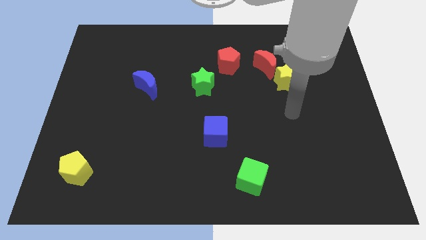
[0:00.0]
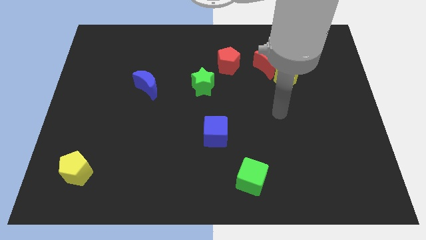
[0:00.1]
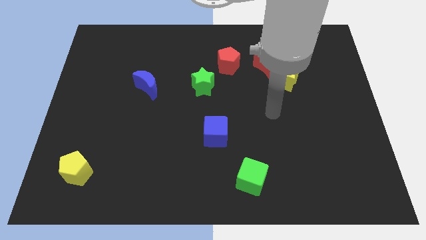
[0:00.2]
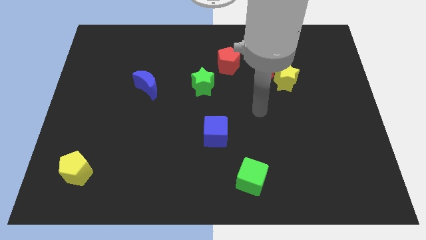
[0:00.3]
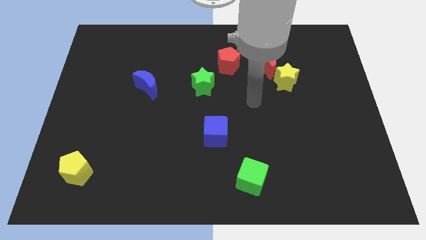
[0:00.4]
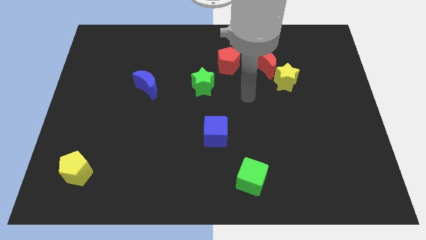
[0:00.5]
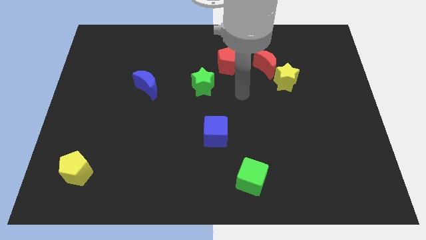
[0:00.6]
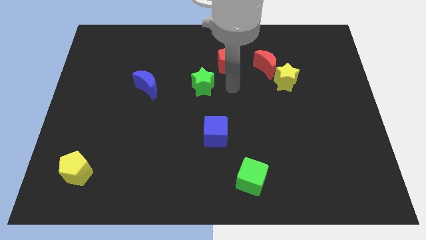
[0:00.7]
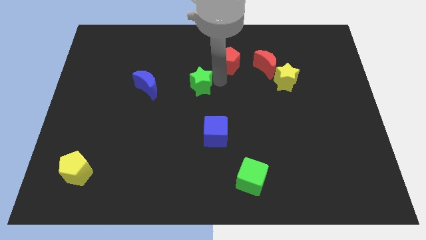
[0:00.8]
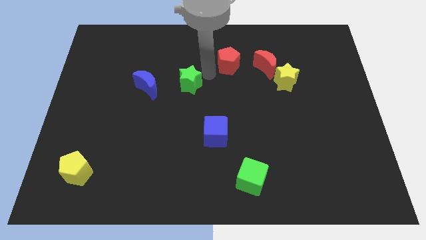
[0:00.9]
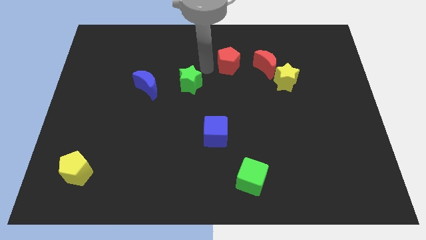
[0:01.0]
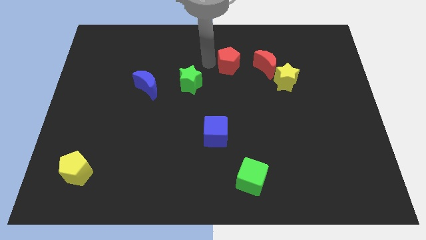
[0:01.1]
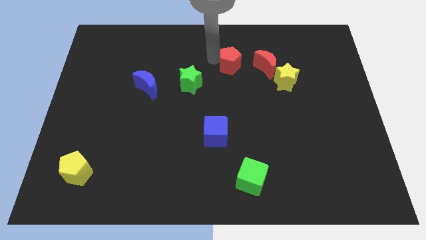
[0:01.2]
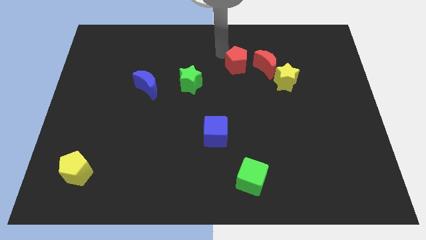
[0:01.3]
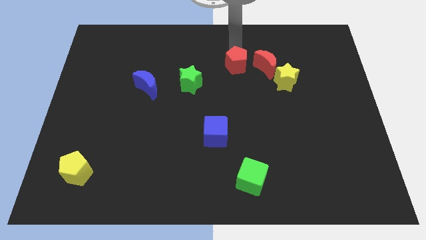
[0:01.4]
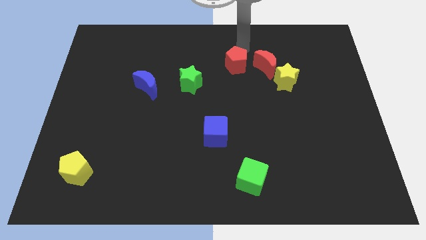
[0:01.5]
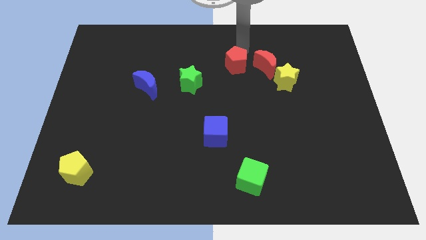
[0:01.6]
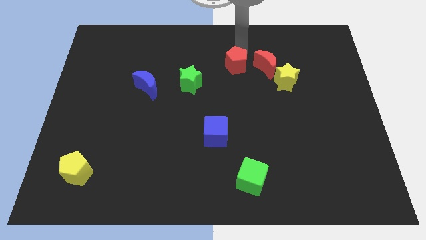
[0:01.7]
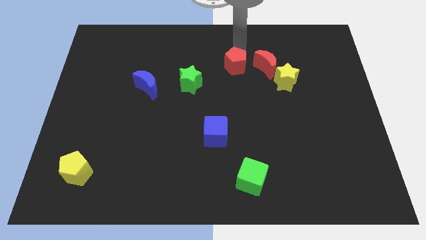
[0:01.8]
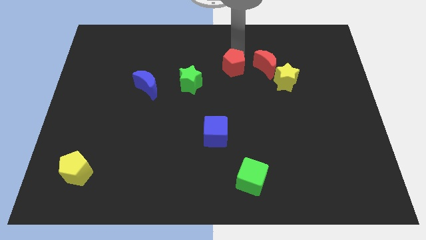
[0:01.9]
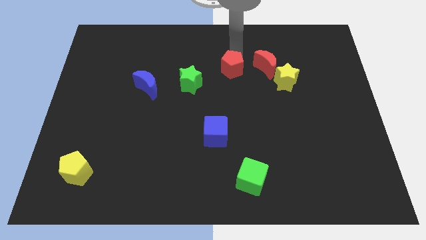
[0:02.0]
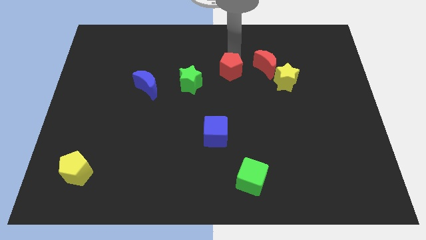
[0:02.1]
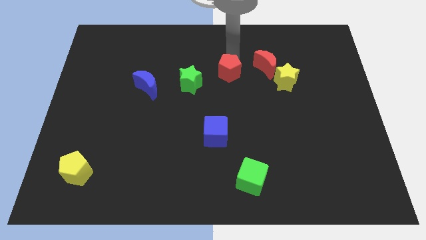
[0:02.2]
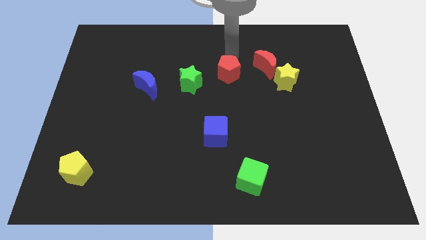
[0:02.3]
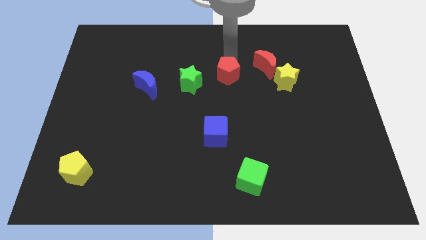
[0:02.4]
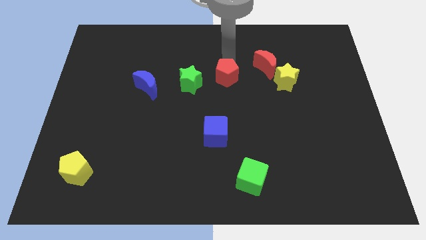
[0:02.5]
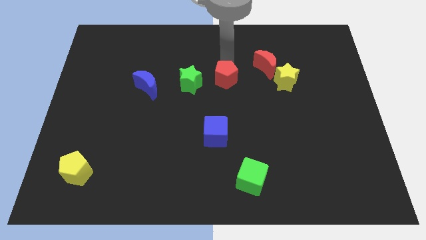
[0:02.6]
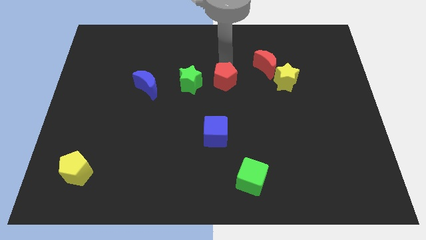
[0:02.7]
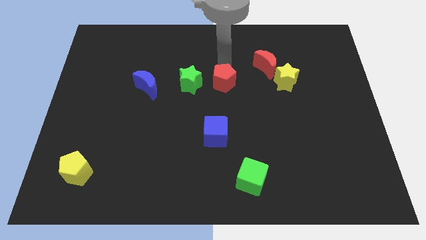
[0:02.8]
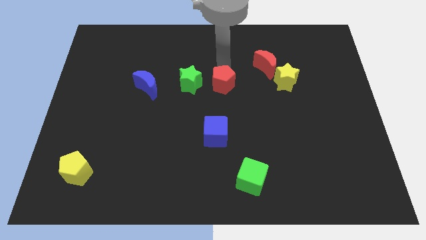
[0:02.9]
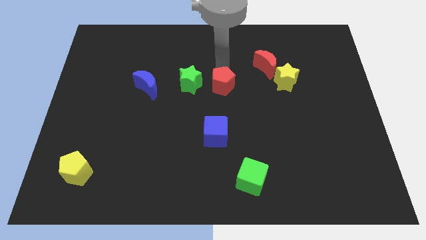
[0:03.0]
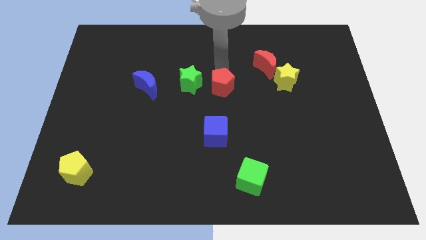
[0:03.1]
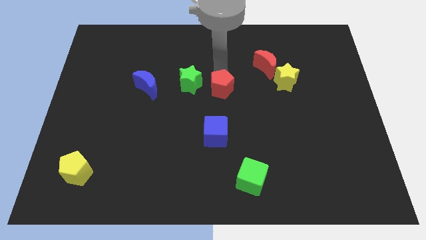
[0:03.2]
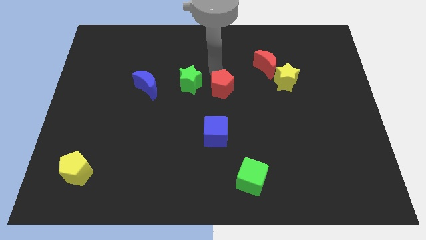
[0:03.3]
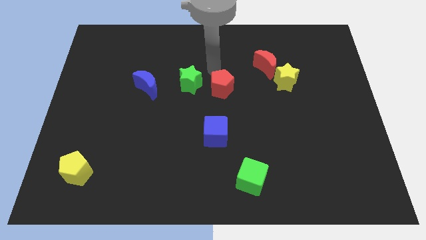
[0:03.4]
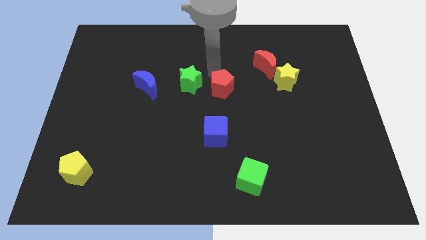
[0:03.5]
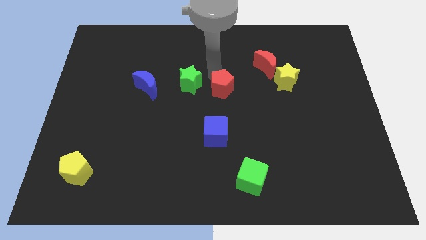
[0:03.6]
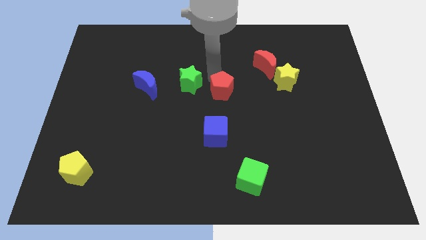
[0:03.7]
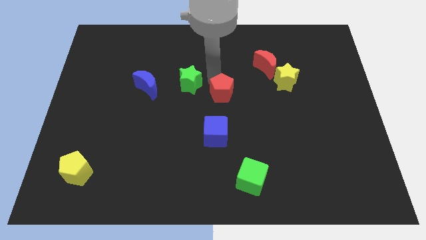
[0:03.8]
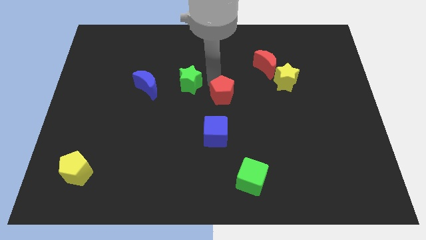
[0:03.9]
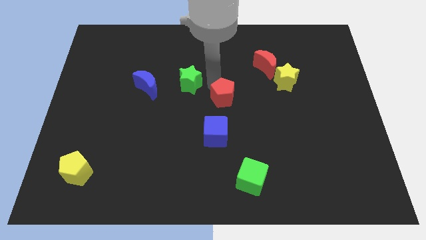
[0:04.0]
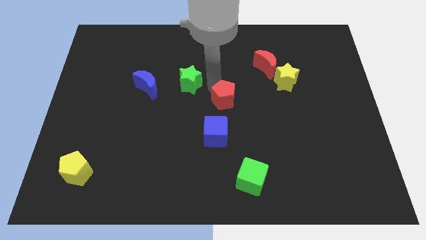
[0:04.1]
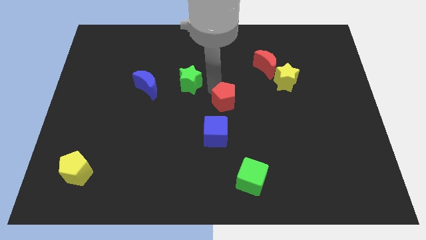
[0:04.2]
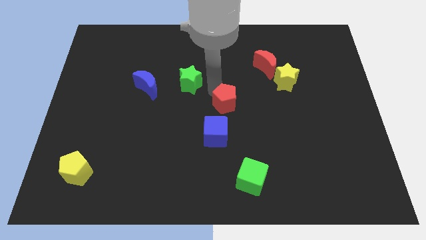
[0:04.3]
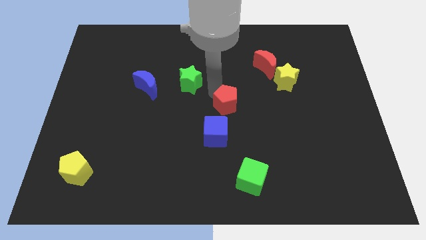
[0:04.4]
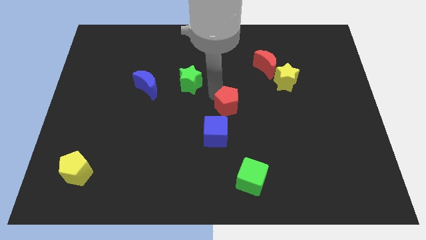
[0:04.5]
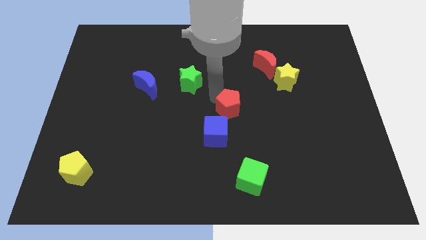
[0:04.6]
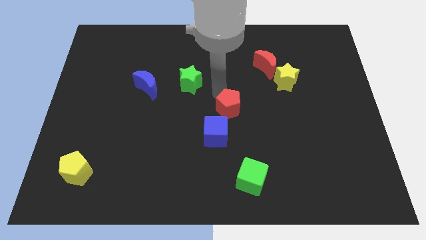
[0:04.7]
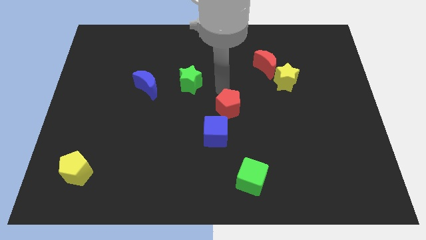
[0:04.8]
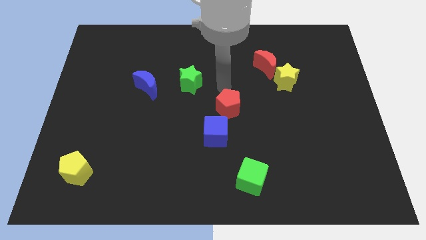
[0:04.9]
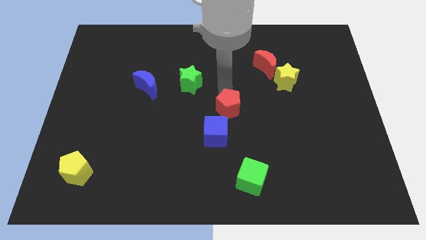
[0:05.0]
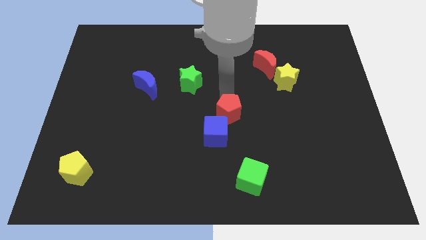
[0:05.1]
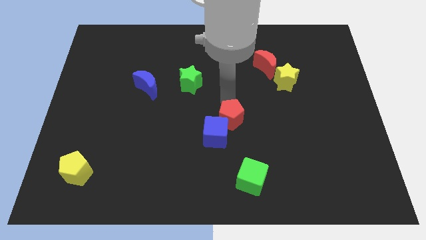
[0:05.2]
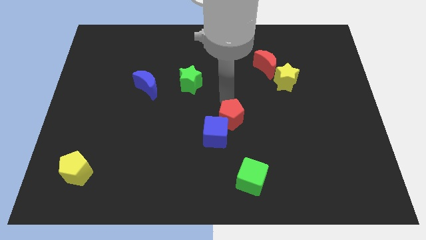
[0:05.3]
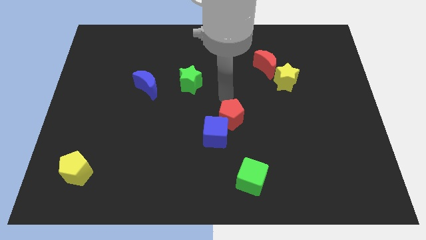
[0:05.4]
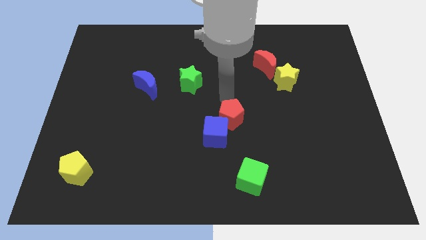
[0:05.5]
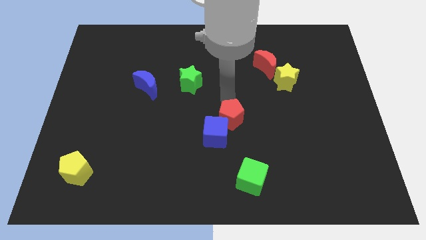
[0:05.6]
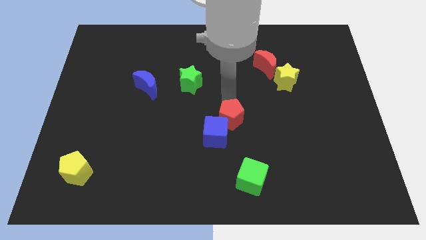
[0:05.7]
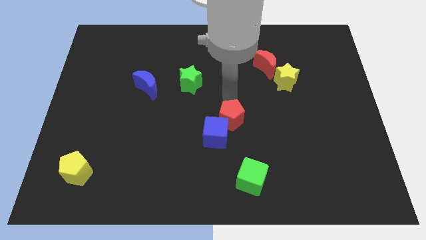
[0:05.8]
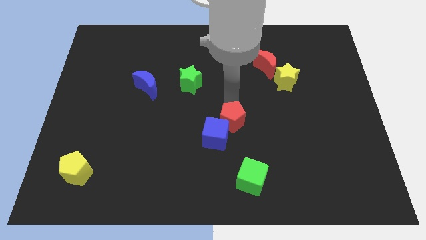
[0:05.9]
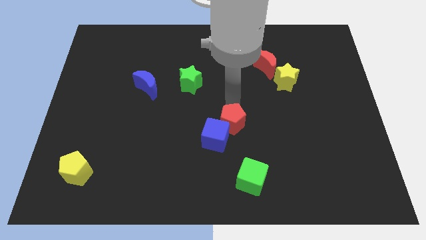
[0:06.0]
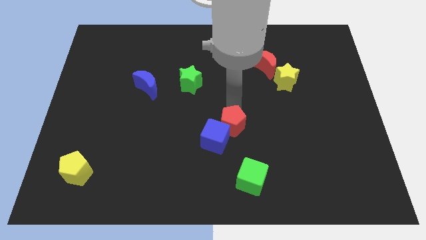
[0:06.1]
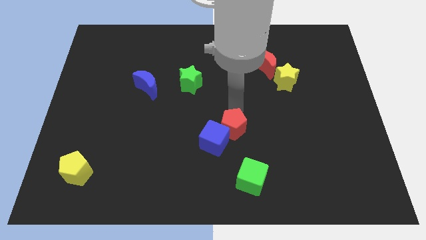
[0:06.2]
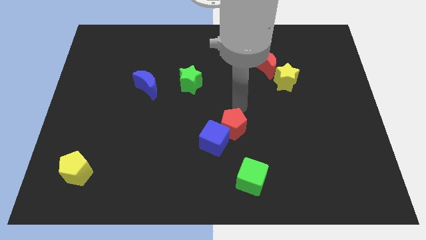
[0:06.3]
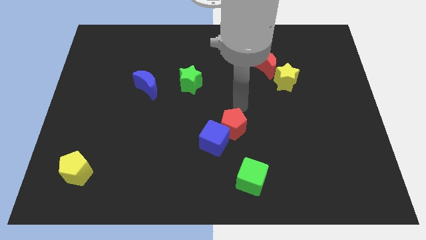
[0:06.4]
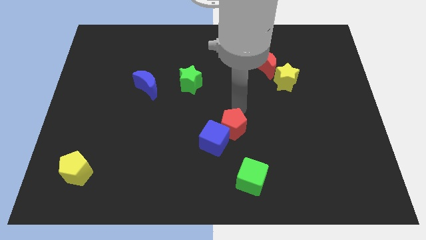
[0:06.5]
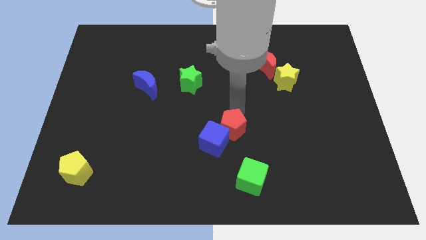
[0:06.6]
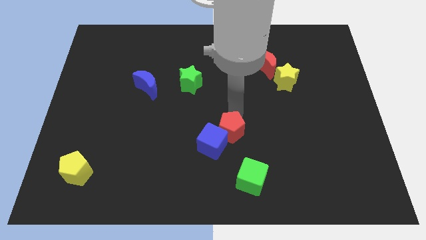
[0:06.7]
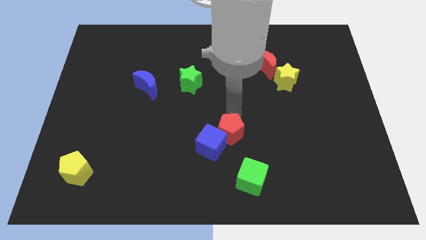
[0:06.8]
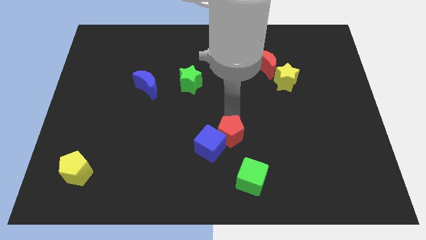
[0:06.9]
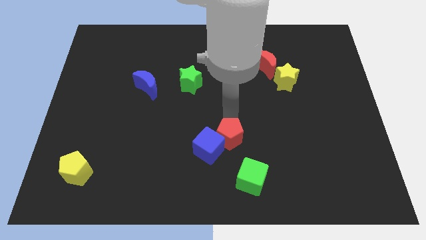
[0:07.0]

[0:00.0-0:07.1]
push the red pentagon to the top left side of the green cube

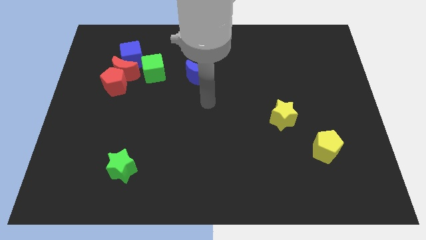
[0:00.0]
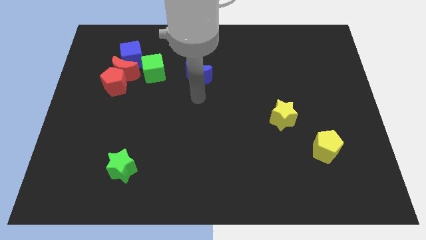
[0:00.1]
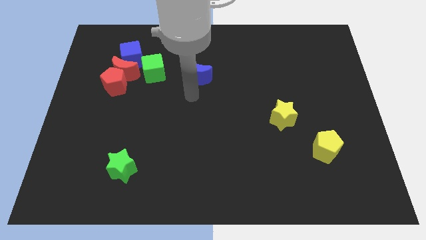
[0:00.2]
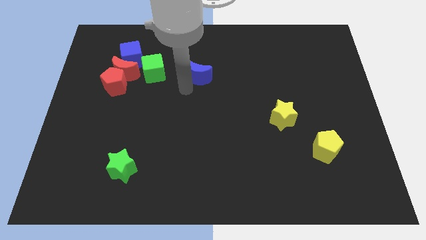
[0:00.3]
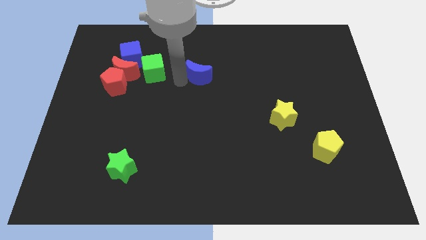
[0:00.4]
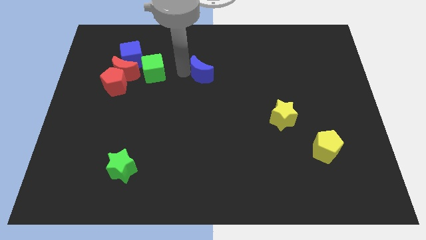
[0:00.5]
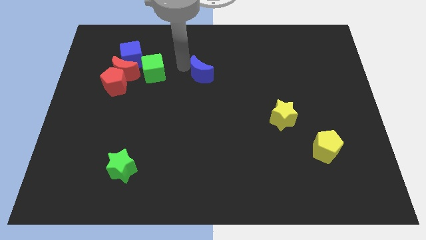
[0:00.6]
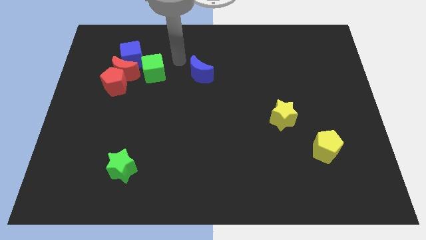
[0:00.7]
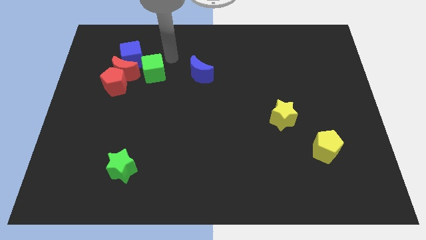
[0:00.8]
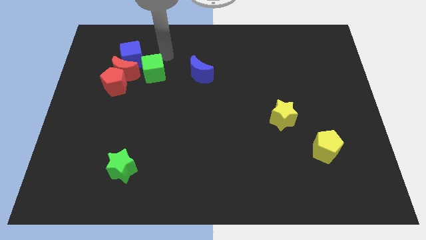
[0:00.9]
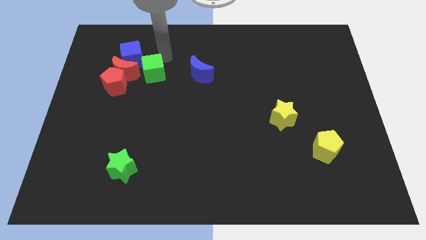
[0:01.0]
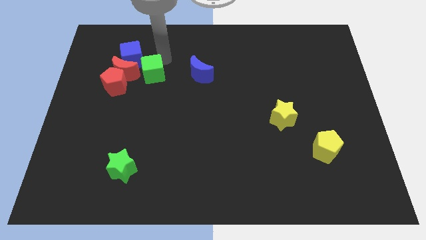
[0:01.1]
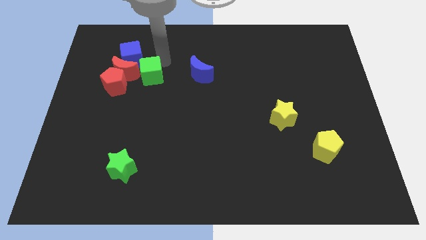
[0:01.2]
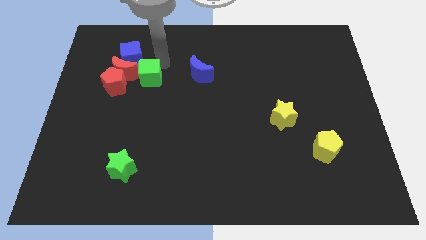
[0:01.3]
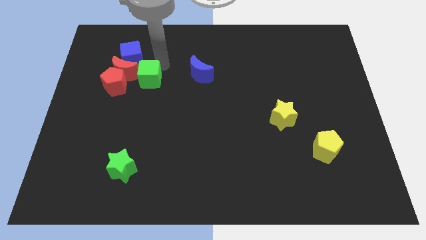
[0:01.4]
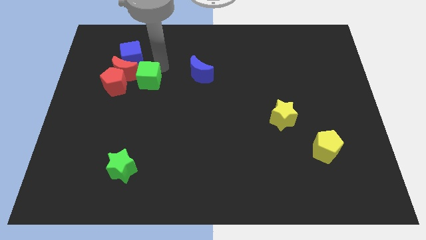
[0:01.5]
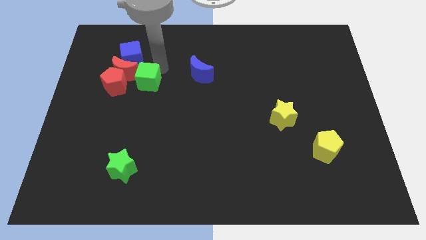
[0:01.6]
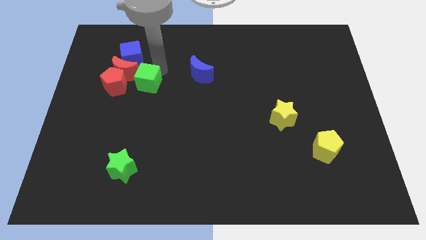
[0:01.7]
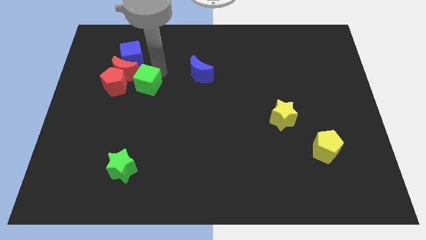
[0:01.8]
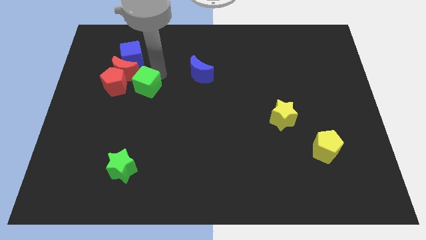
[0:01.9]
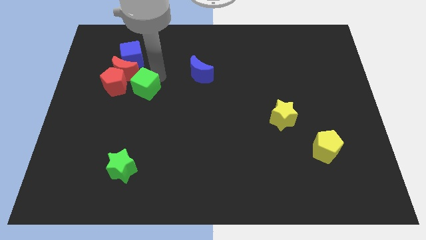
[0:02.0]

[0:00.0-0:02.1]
put the green cube to the bottom right side of the red pentagon
